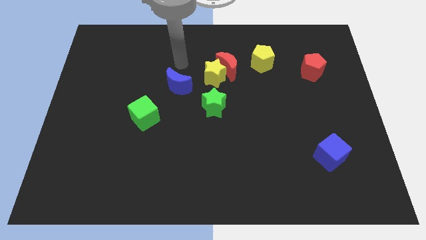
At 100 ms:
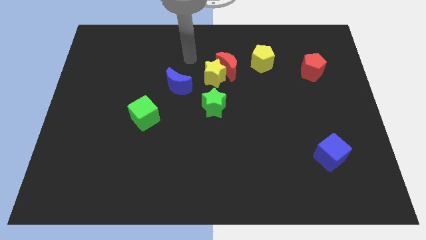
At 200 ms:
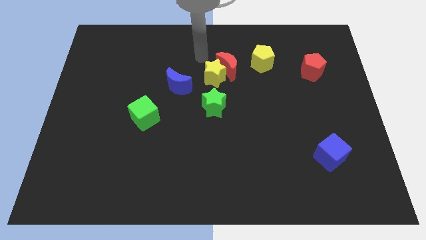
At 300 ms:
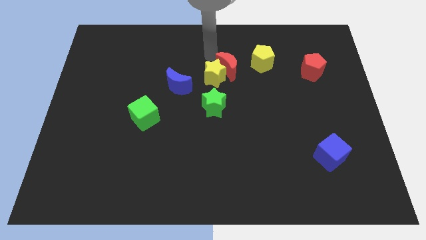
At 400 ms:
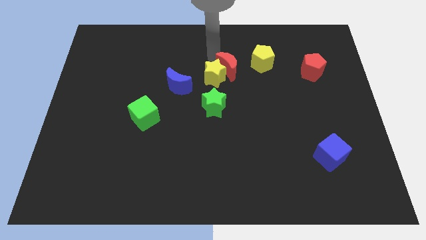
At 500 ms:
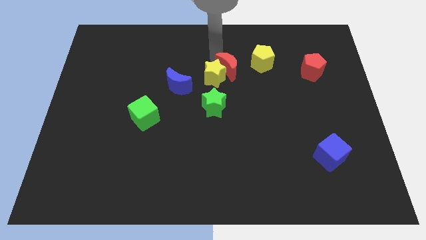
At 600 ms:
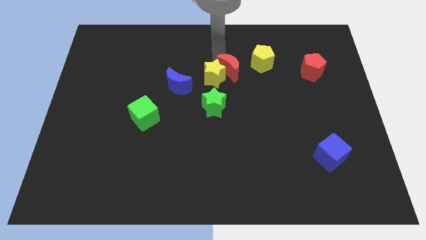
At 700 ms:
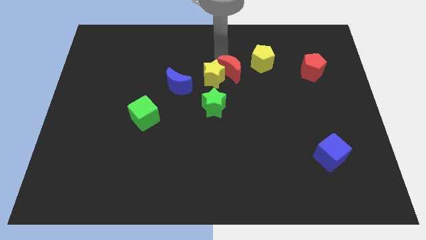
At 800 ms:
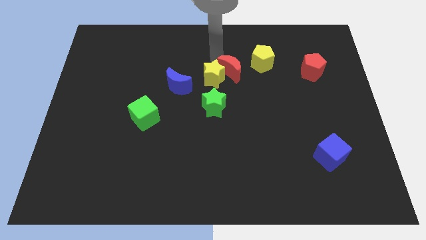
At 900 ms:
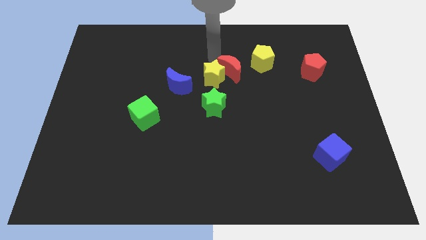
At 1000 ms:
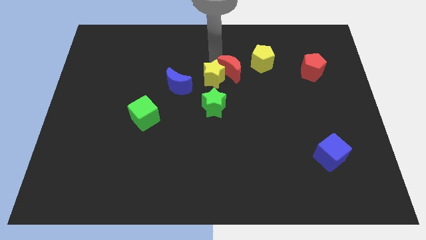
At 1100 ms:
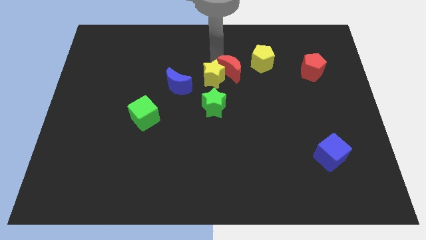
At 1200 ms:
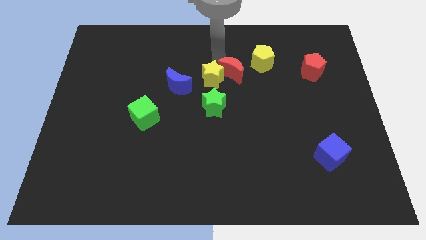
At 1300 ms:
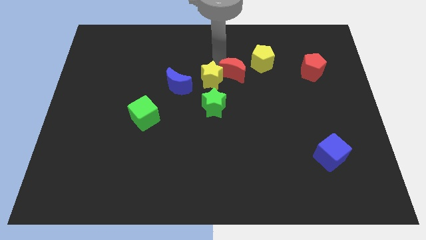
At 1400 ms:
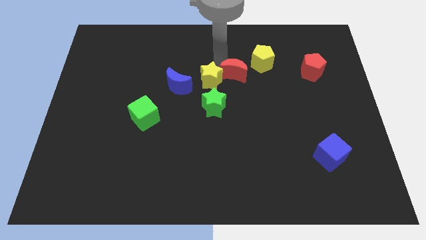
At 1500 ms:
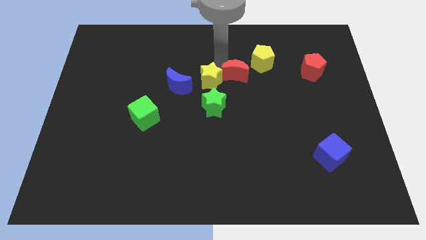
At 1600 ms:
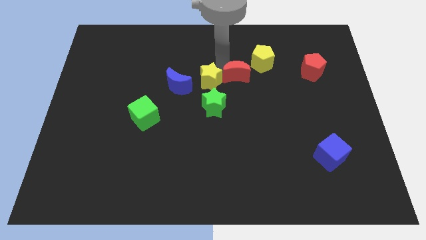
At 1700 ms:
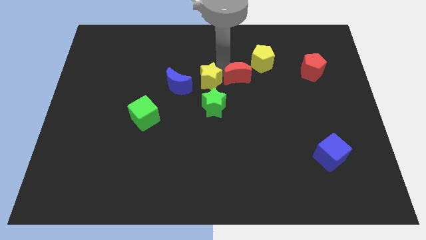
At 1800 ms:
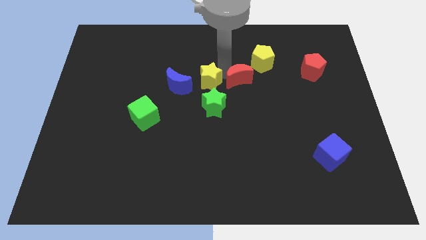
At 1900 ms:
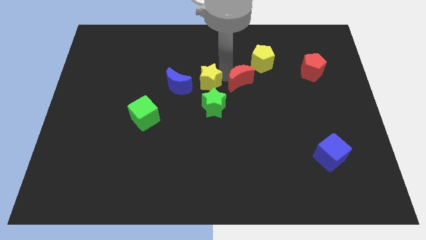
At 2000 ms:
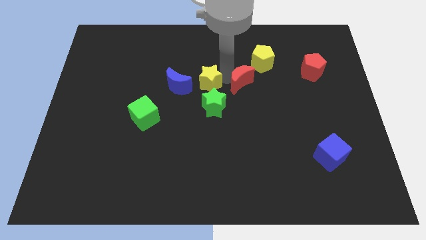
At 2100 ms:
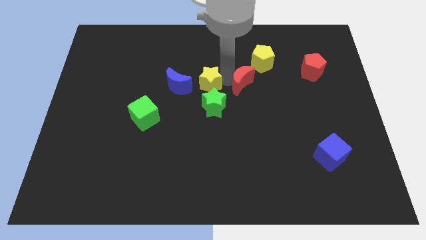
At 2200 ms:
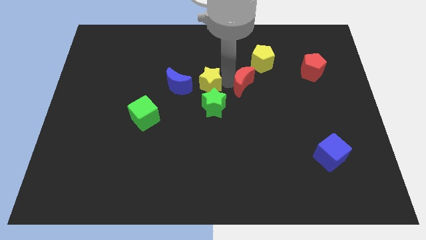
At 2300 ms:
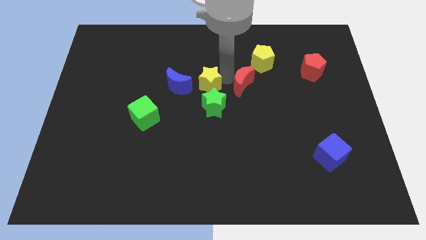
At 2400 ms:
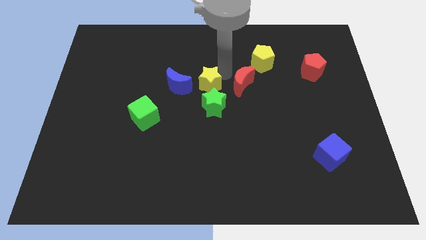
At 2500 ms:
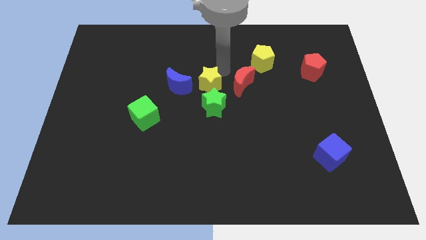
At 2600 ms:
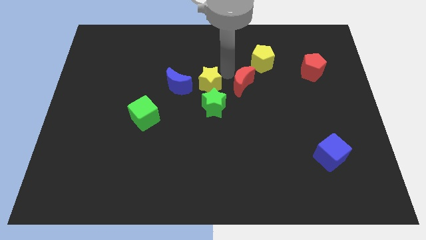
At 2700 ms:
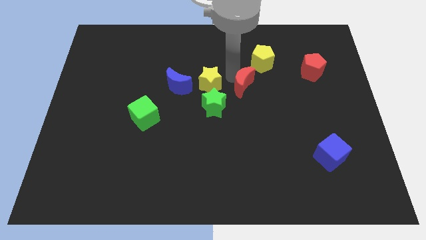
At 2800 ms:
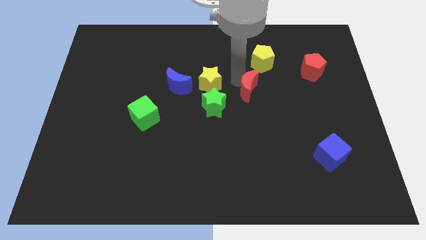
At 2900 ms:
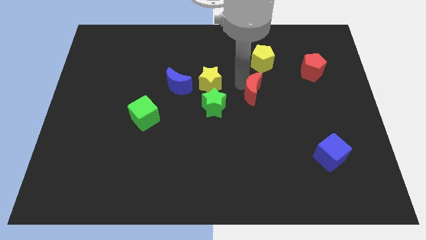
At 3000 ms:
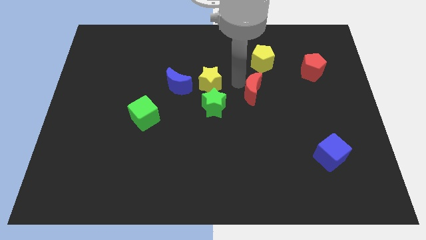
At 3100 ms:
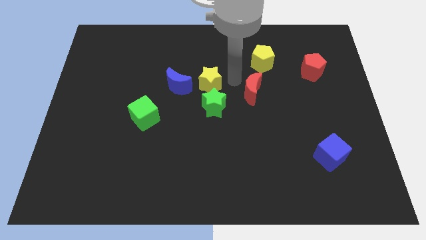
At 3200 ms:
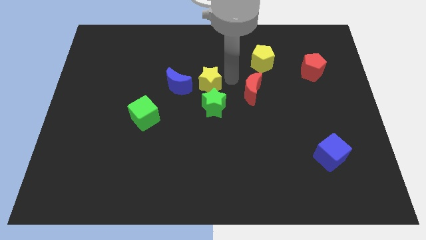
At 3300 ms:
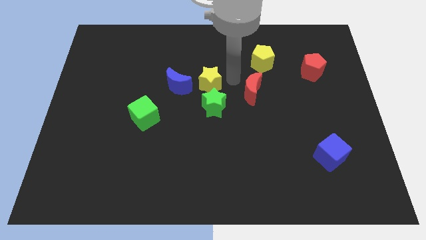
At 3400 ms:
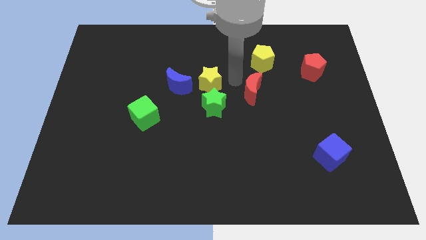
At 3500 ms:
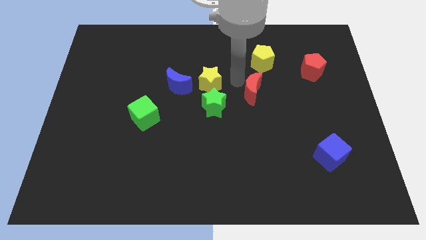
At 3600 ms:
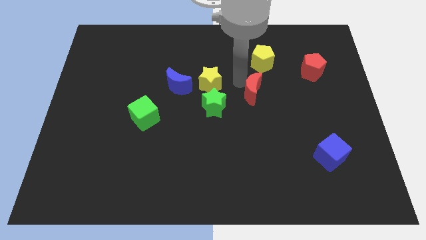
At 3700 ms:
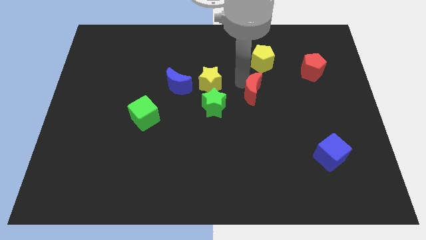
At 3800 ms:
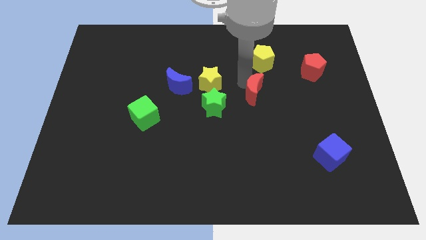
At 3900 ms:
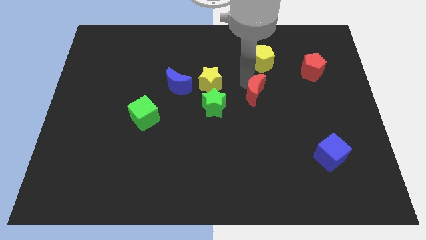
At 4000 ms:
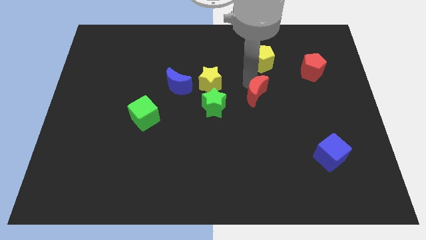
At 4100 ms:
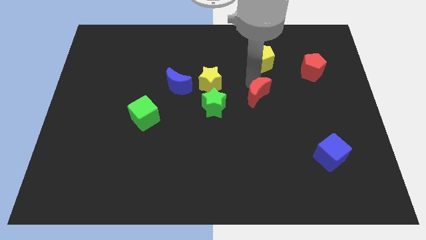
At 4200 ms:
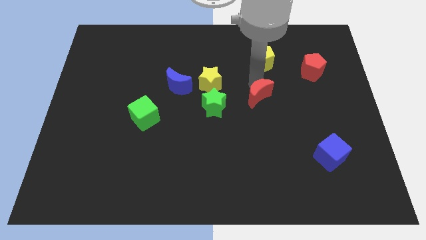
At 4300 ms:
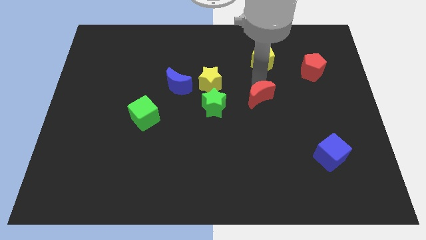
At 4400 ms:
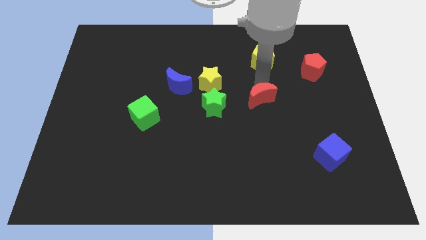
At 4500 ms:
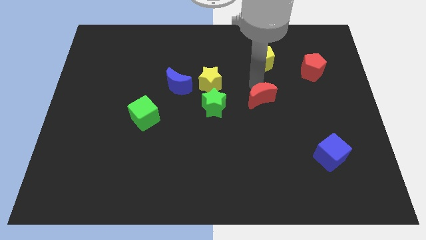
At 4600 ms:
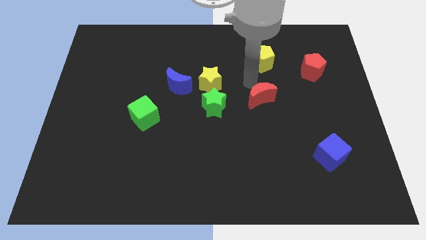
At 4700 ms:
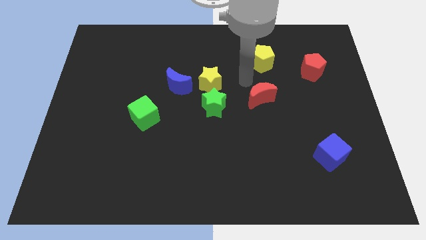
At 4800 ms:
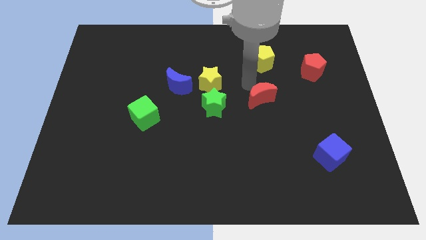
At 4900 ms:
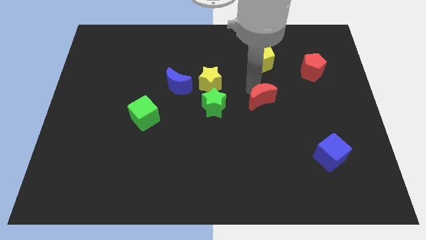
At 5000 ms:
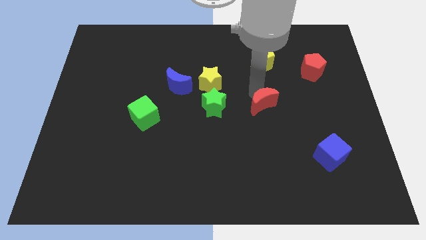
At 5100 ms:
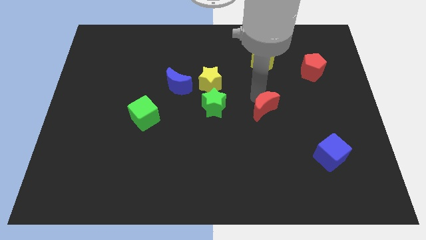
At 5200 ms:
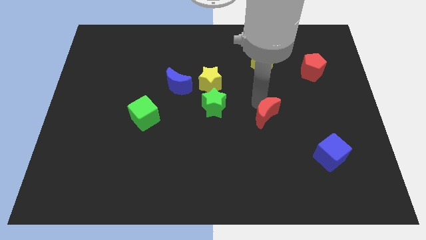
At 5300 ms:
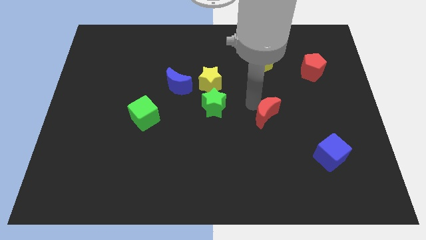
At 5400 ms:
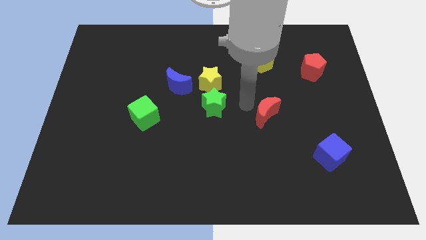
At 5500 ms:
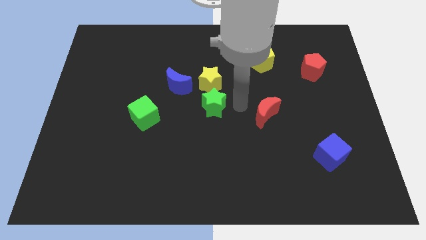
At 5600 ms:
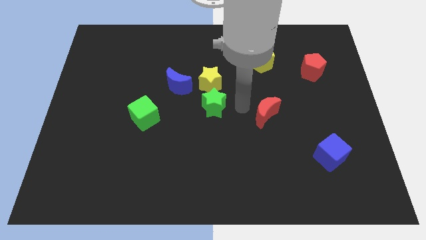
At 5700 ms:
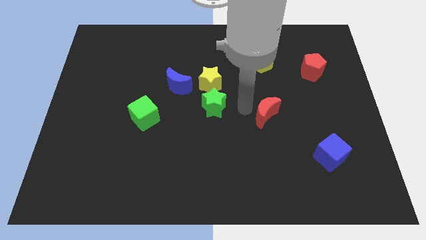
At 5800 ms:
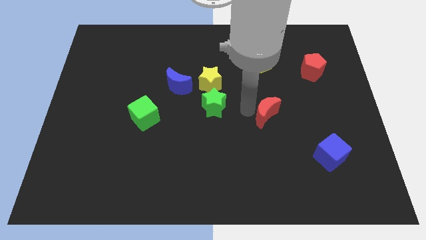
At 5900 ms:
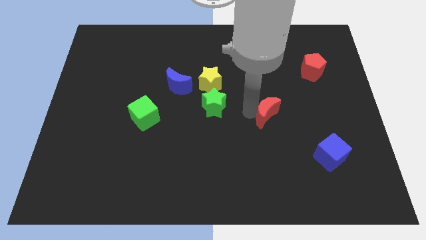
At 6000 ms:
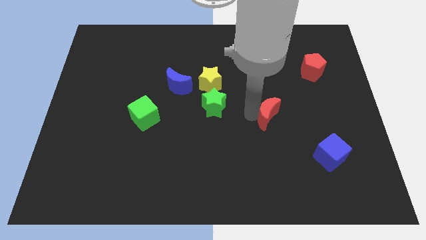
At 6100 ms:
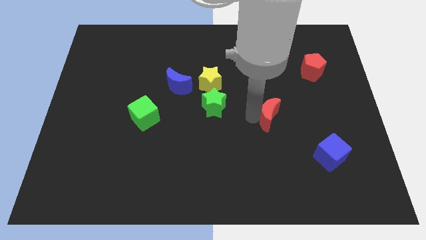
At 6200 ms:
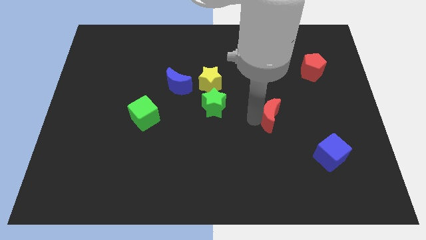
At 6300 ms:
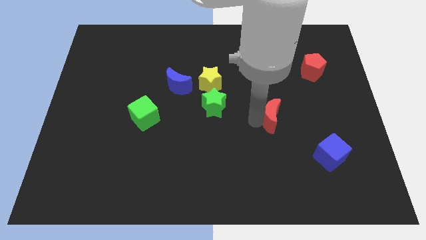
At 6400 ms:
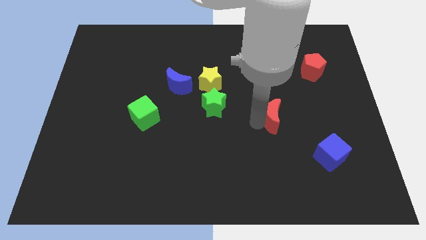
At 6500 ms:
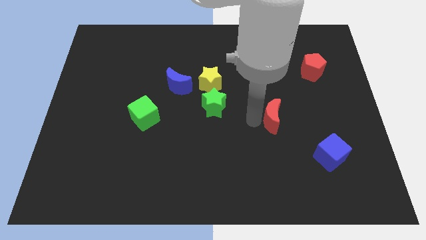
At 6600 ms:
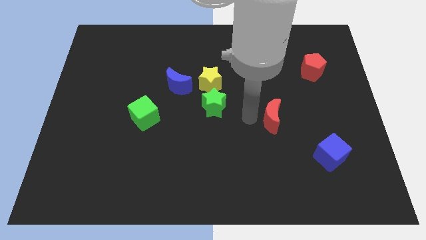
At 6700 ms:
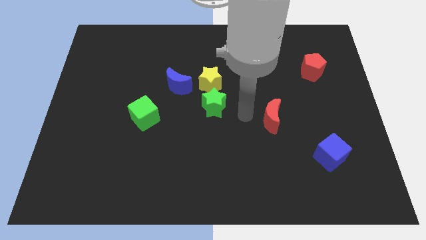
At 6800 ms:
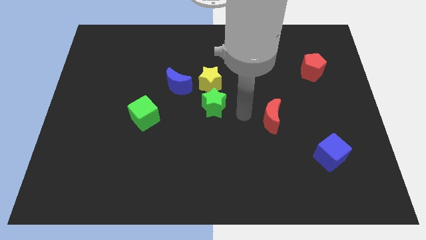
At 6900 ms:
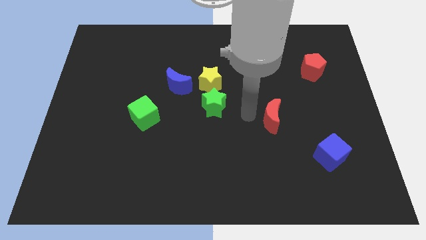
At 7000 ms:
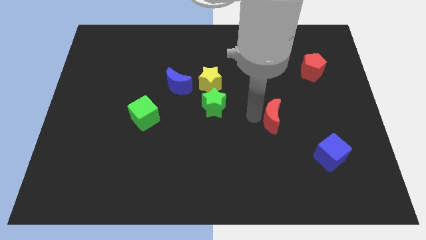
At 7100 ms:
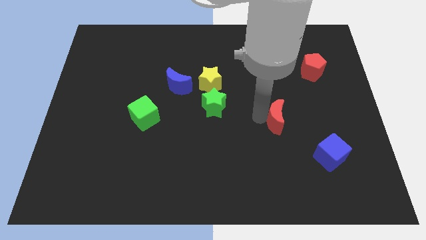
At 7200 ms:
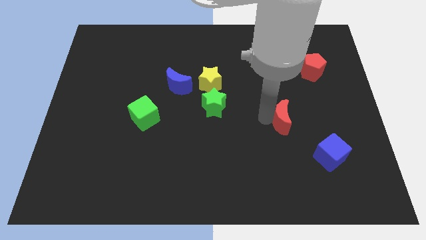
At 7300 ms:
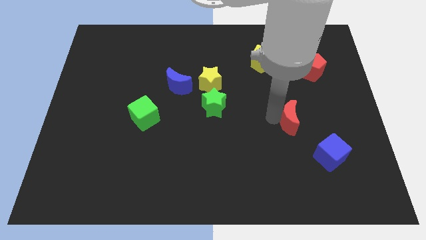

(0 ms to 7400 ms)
push the red moon to the top left of the blue cube
